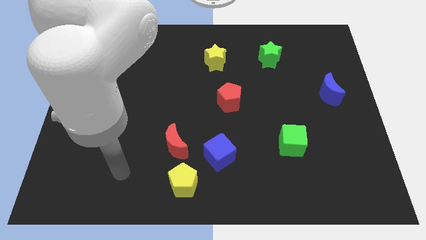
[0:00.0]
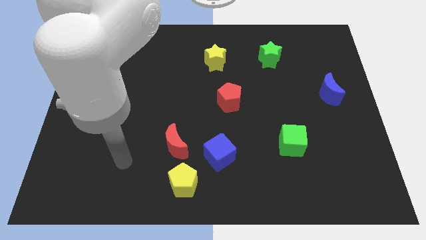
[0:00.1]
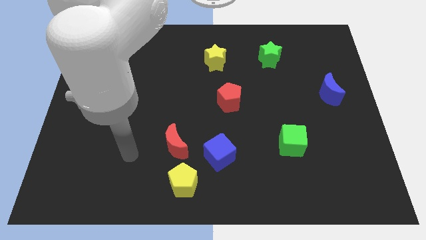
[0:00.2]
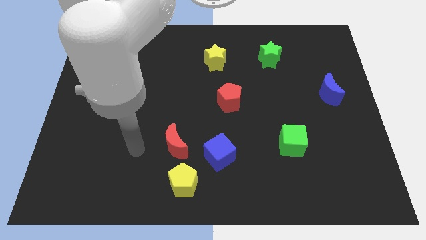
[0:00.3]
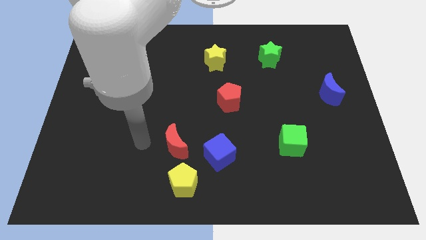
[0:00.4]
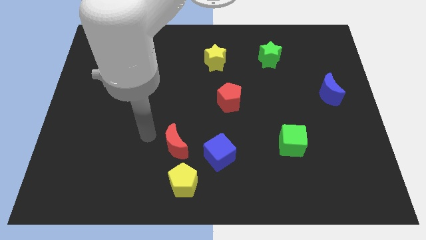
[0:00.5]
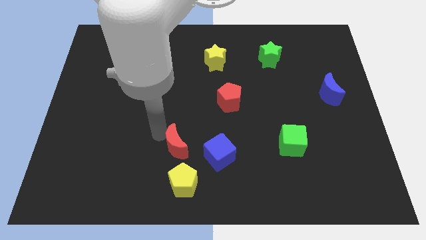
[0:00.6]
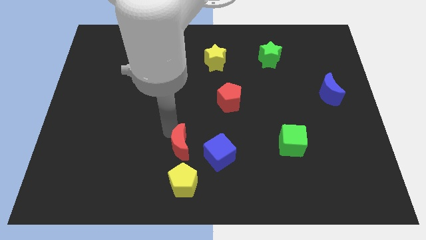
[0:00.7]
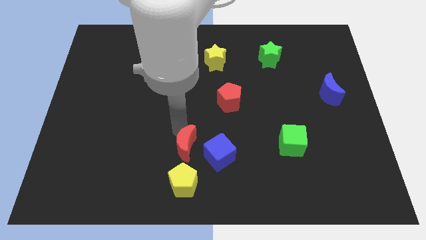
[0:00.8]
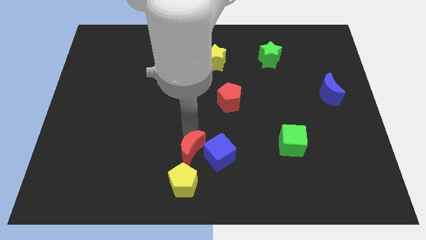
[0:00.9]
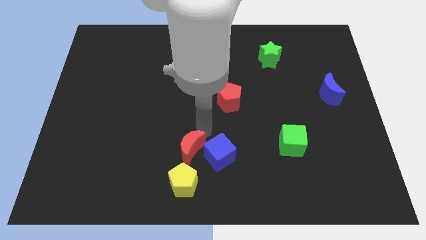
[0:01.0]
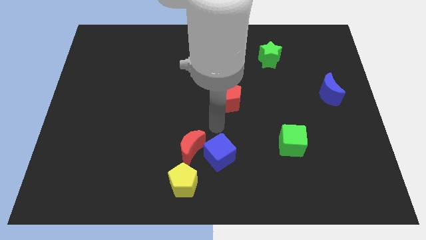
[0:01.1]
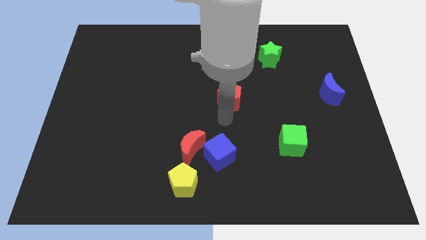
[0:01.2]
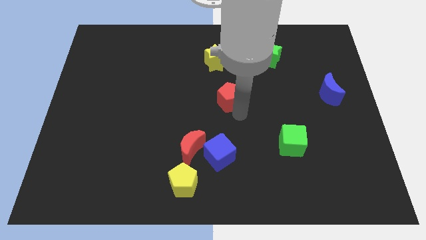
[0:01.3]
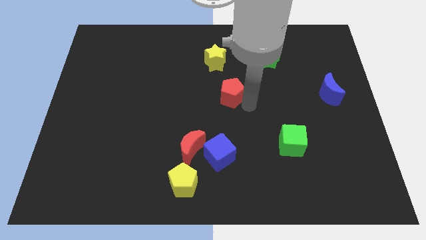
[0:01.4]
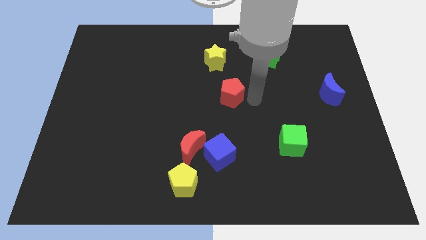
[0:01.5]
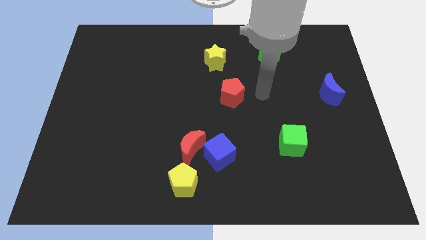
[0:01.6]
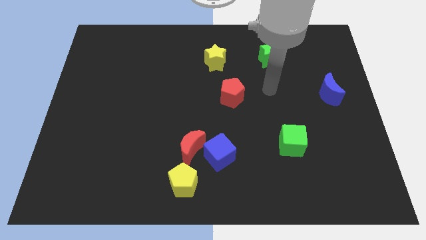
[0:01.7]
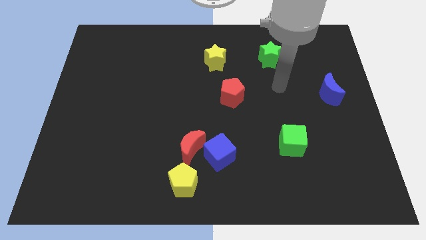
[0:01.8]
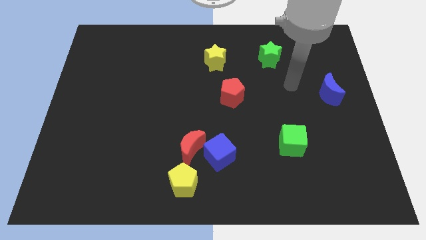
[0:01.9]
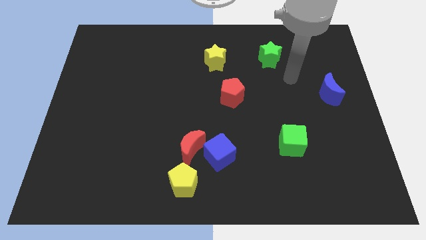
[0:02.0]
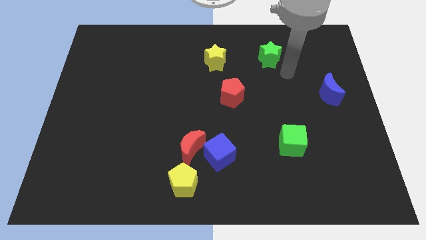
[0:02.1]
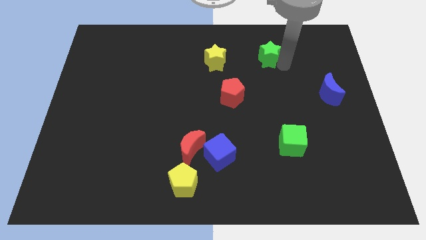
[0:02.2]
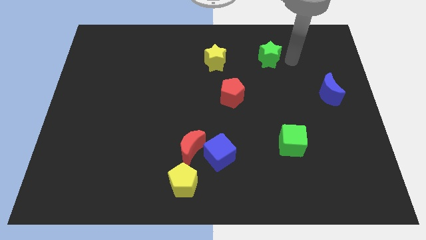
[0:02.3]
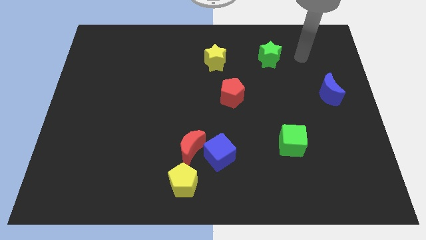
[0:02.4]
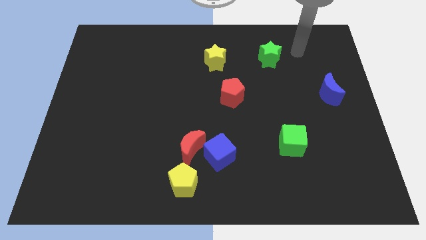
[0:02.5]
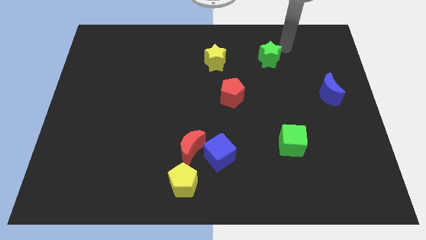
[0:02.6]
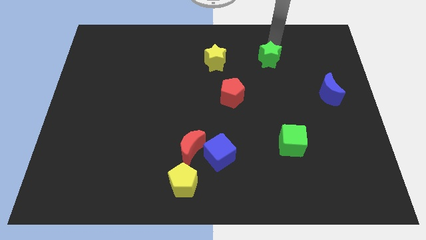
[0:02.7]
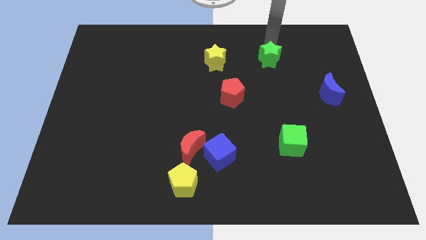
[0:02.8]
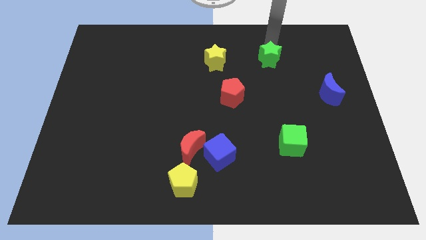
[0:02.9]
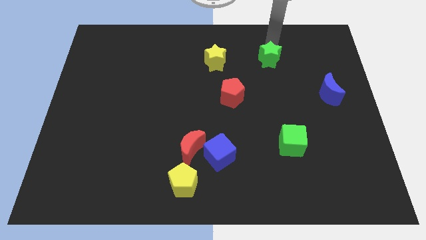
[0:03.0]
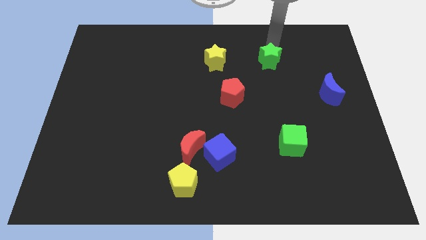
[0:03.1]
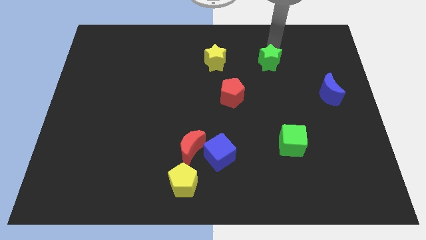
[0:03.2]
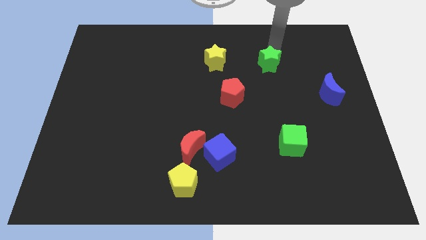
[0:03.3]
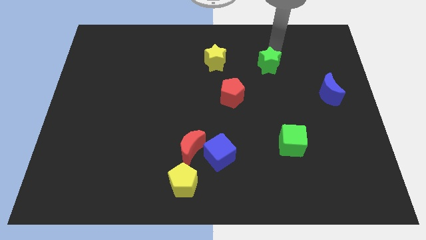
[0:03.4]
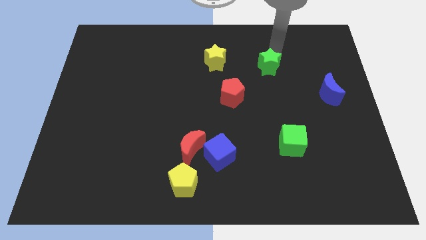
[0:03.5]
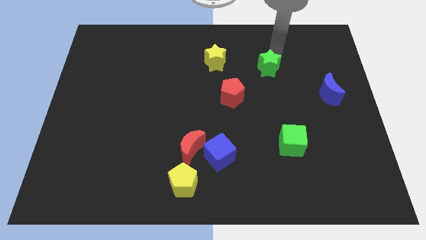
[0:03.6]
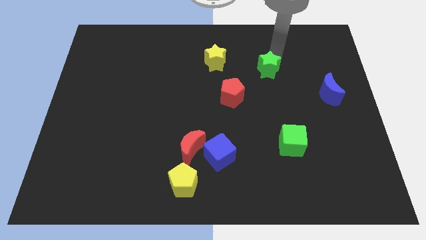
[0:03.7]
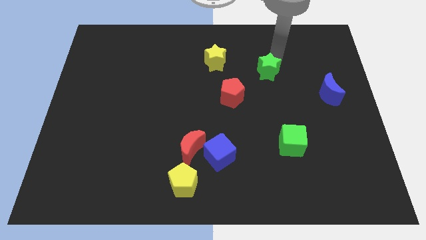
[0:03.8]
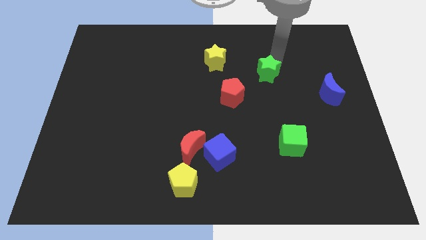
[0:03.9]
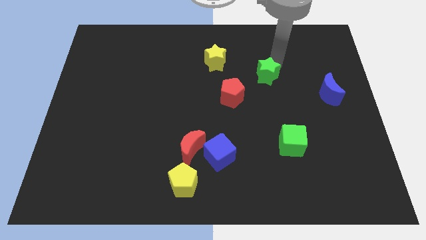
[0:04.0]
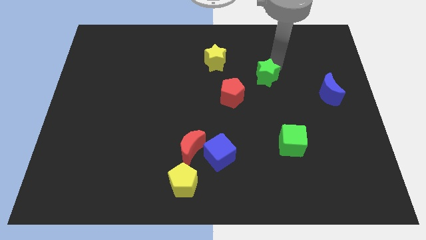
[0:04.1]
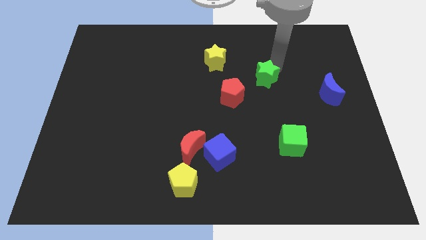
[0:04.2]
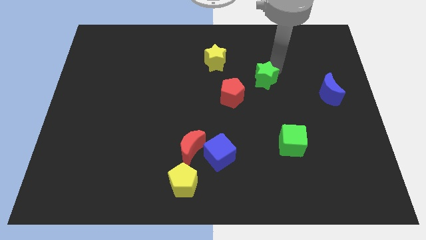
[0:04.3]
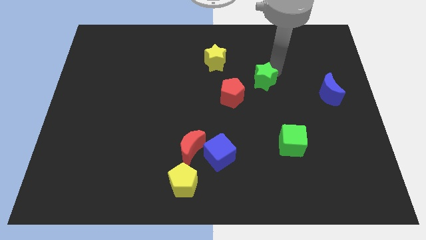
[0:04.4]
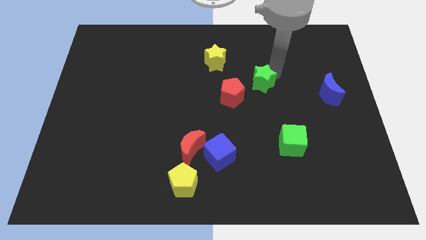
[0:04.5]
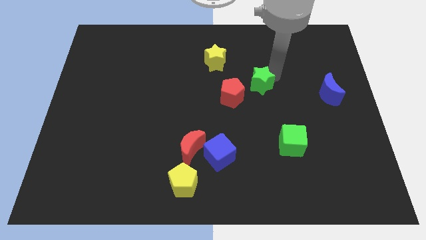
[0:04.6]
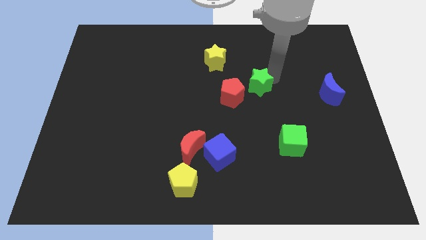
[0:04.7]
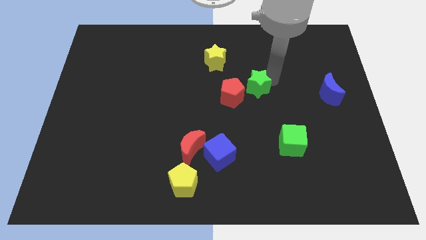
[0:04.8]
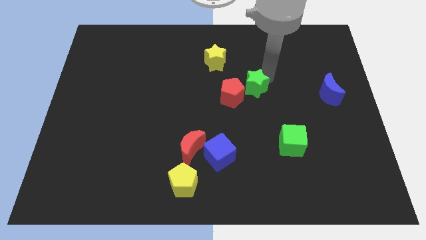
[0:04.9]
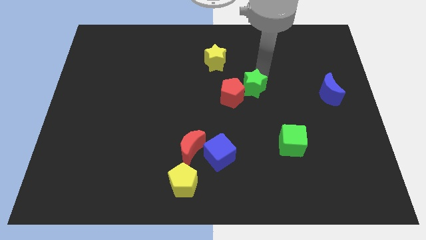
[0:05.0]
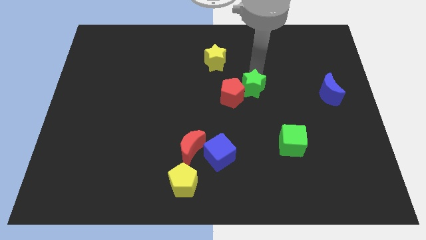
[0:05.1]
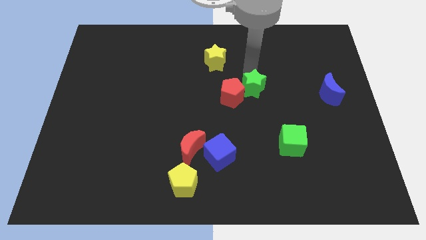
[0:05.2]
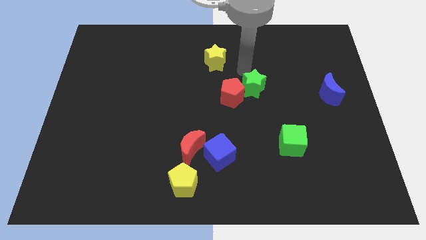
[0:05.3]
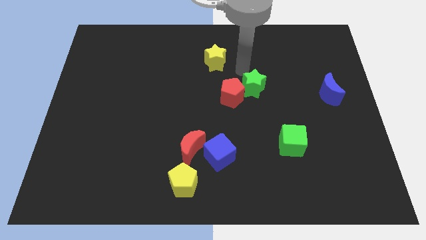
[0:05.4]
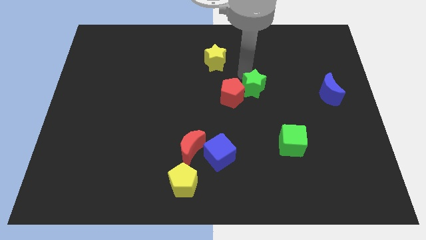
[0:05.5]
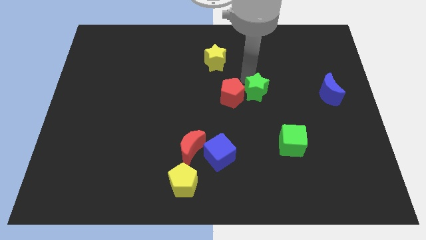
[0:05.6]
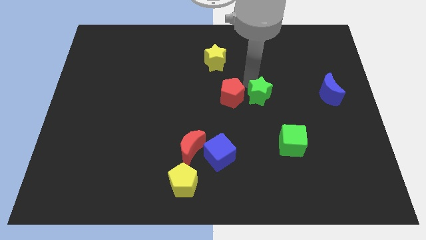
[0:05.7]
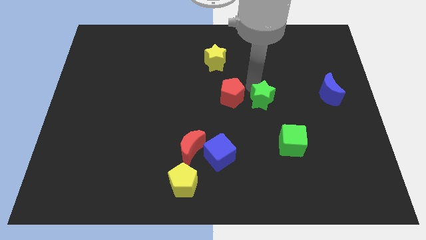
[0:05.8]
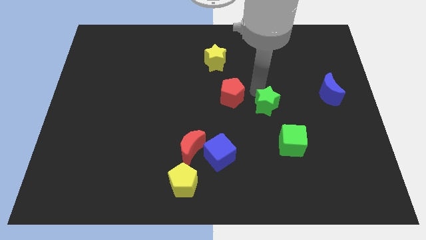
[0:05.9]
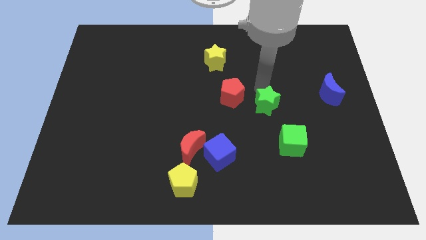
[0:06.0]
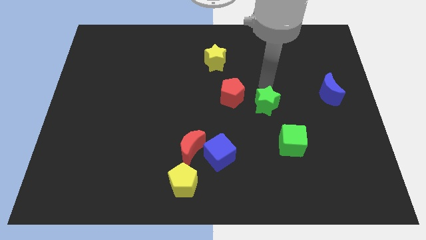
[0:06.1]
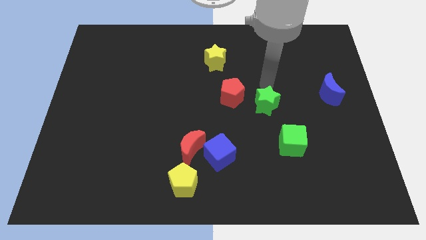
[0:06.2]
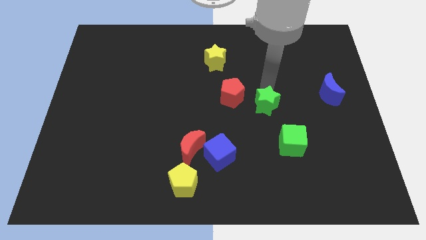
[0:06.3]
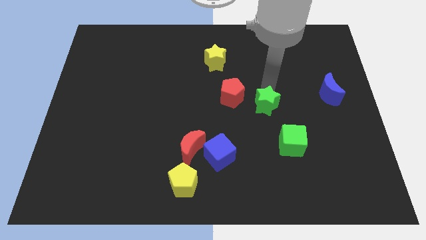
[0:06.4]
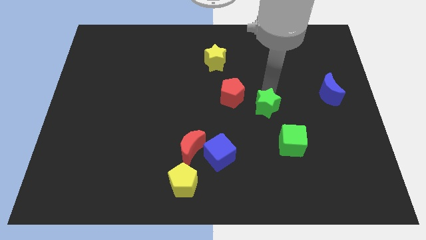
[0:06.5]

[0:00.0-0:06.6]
put the green star to the top left side of the green cube

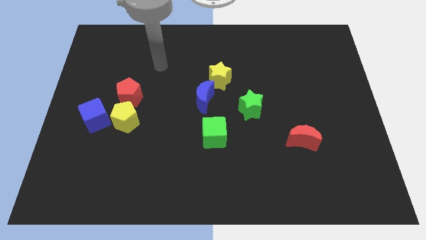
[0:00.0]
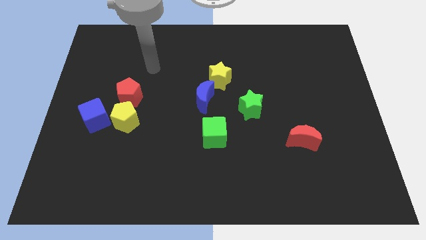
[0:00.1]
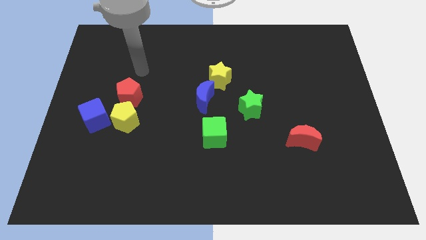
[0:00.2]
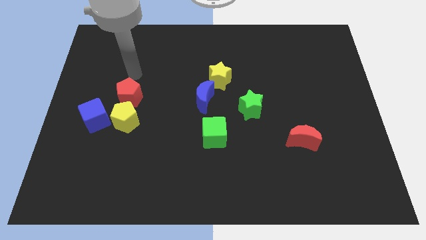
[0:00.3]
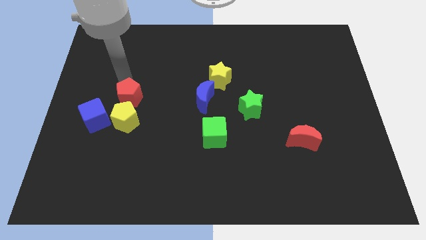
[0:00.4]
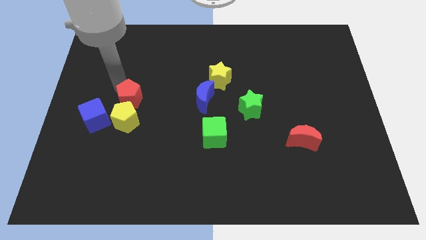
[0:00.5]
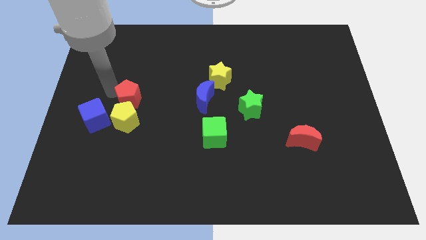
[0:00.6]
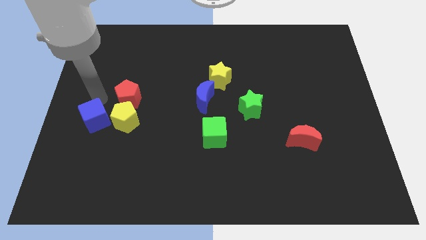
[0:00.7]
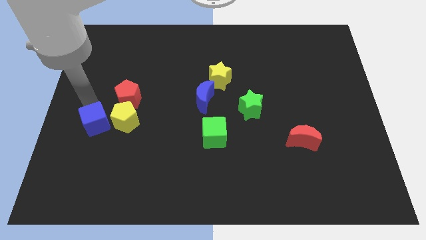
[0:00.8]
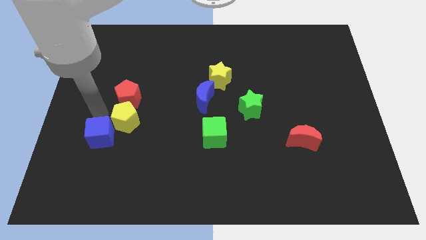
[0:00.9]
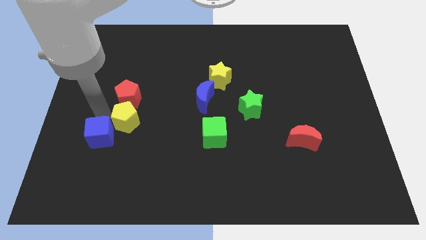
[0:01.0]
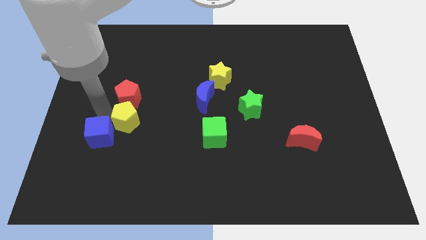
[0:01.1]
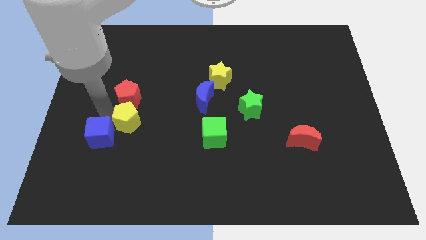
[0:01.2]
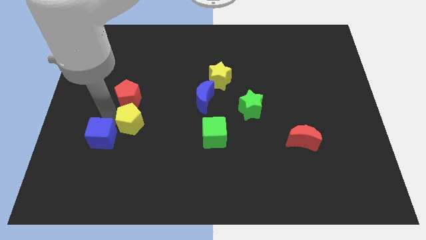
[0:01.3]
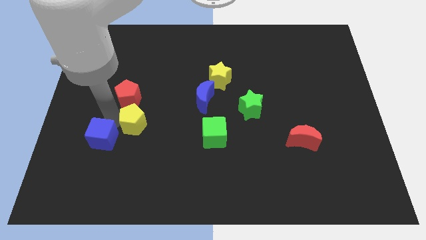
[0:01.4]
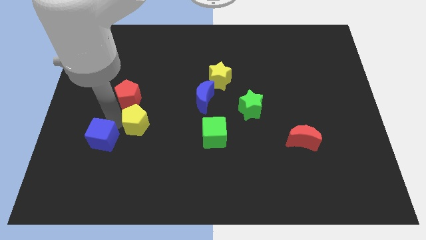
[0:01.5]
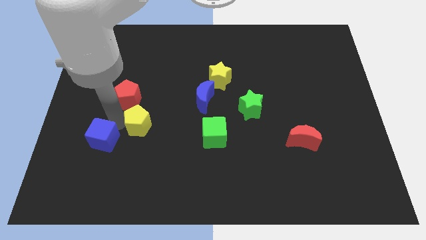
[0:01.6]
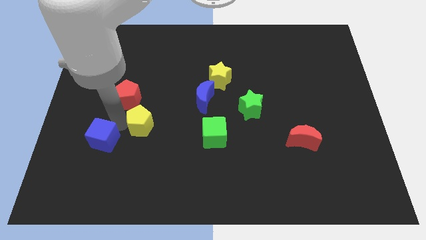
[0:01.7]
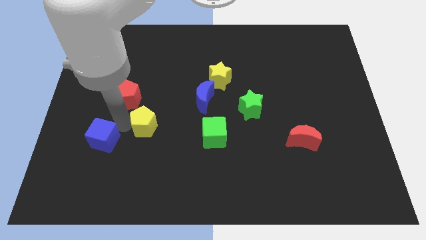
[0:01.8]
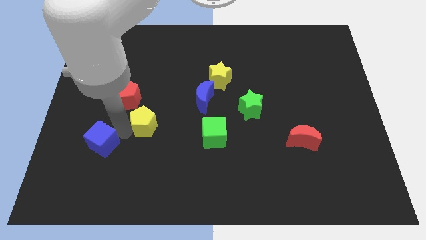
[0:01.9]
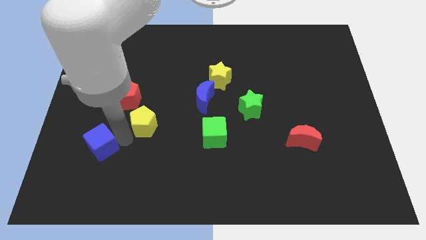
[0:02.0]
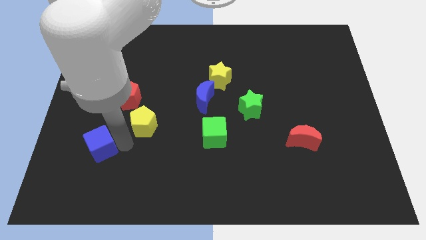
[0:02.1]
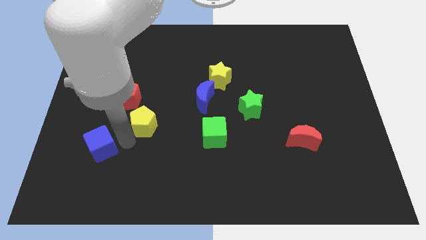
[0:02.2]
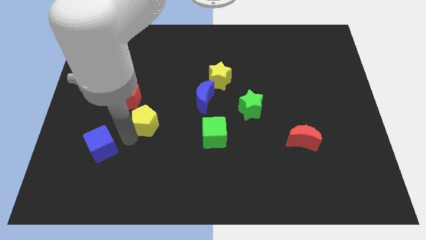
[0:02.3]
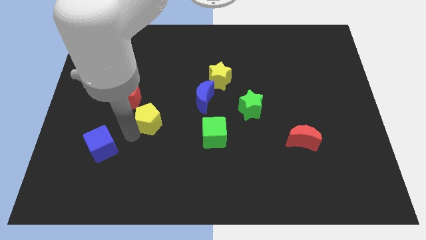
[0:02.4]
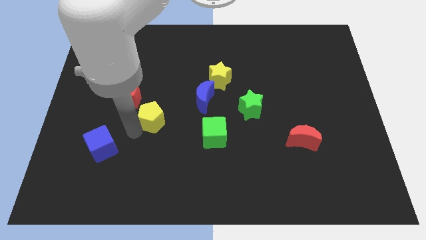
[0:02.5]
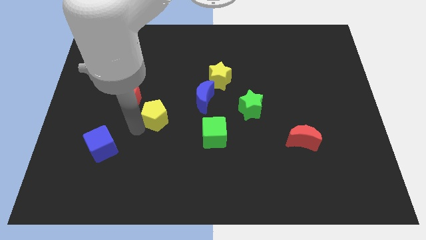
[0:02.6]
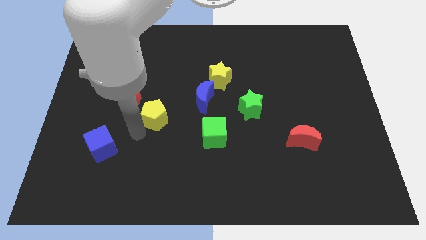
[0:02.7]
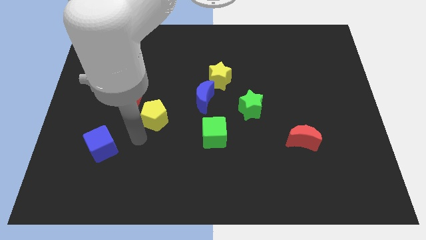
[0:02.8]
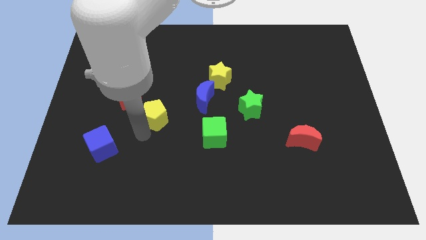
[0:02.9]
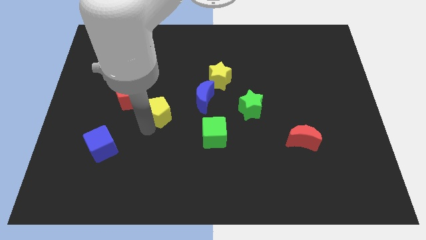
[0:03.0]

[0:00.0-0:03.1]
slide the yellow pentagon just right of the red pentagon
